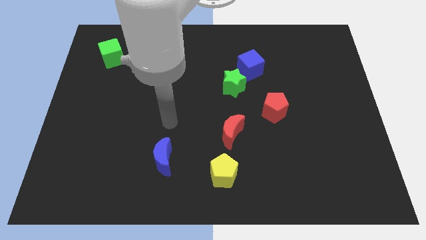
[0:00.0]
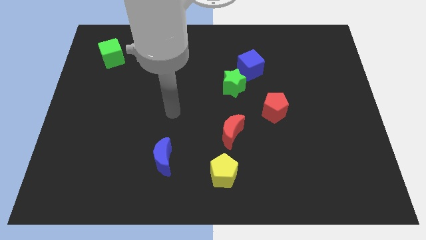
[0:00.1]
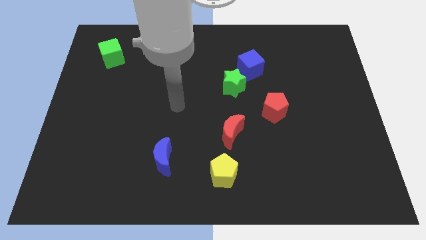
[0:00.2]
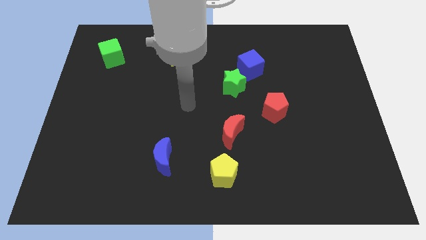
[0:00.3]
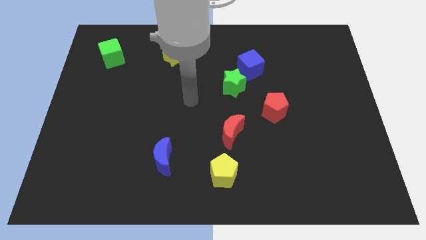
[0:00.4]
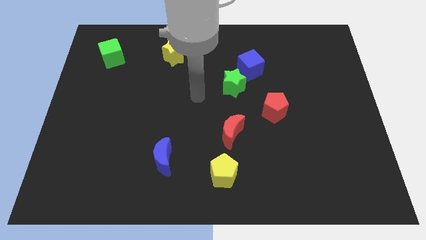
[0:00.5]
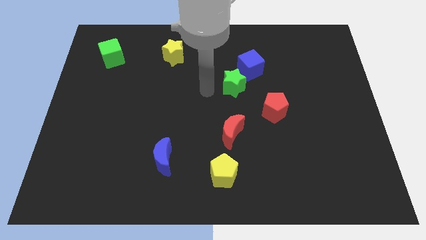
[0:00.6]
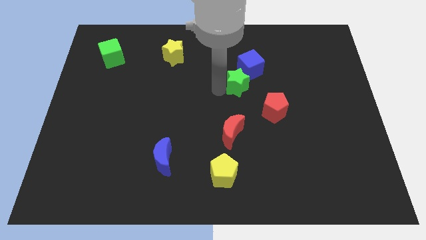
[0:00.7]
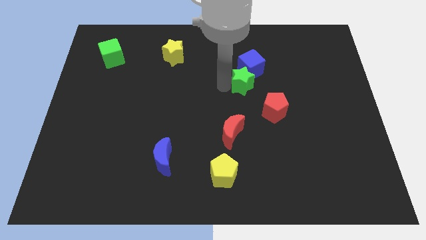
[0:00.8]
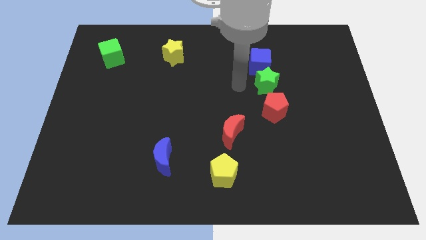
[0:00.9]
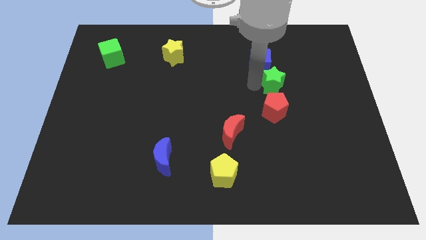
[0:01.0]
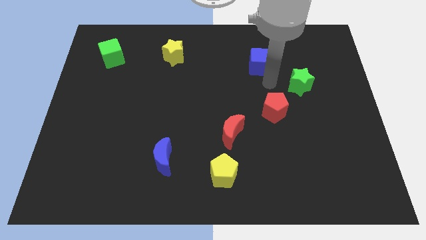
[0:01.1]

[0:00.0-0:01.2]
separate the blue cube from the green star

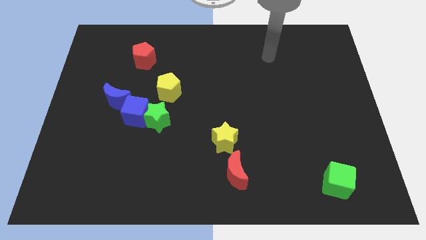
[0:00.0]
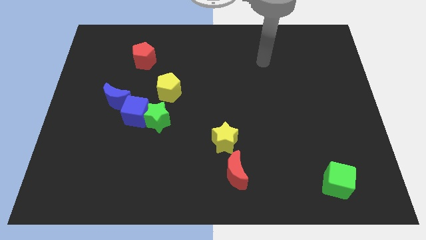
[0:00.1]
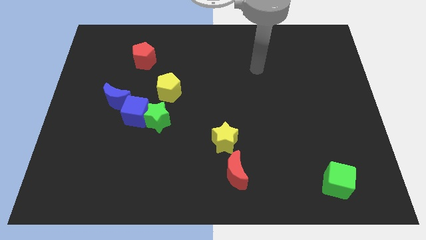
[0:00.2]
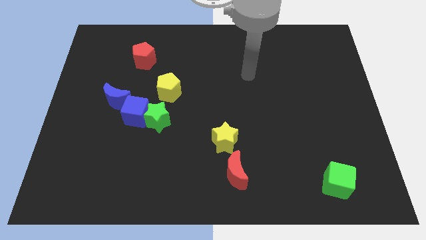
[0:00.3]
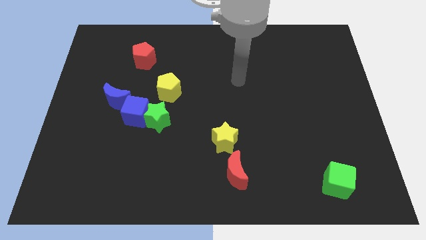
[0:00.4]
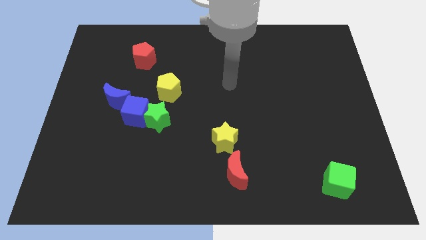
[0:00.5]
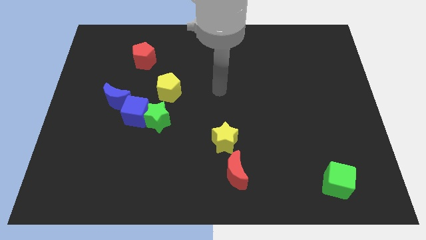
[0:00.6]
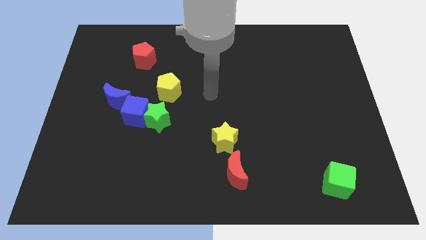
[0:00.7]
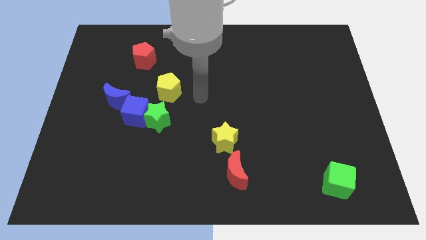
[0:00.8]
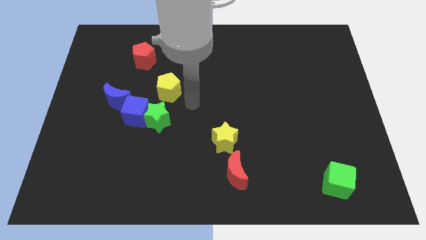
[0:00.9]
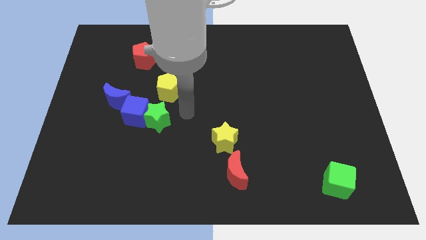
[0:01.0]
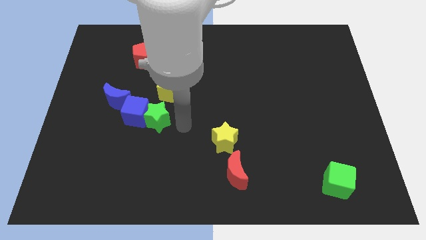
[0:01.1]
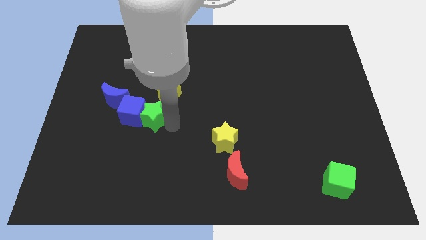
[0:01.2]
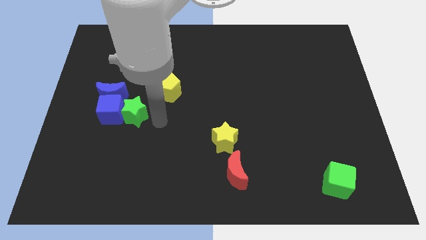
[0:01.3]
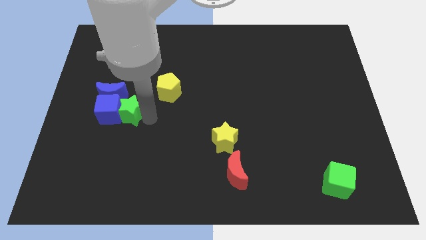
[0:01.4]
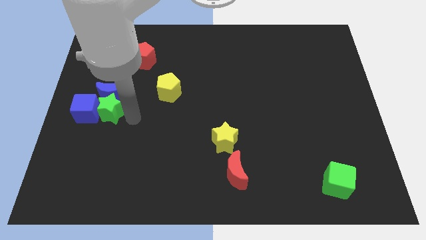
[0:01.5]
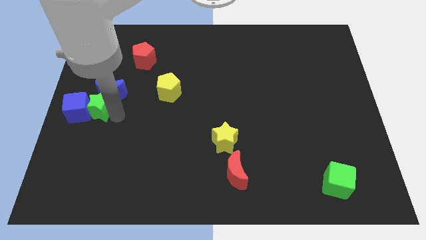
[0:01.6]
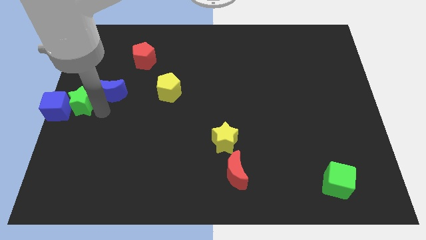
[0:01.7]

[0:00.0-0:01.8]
pull the blue moon apart from the blue cube

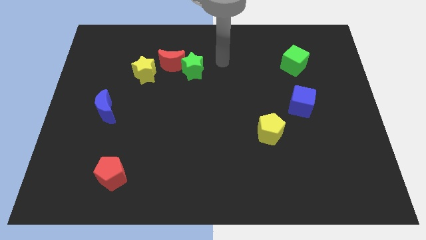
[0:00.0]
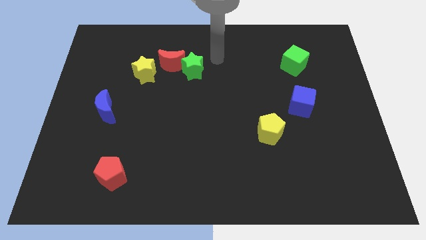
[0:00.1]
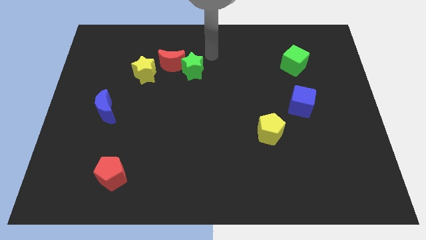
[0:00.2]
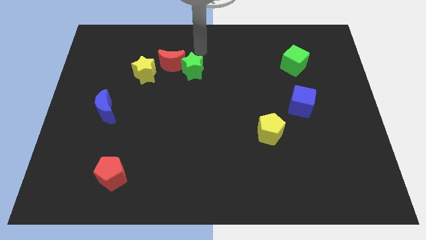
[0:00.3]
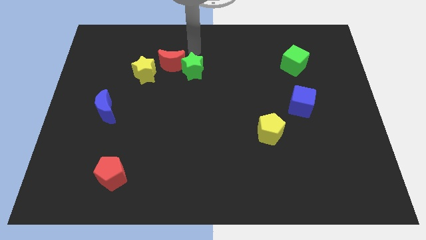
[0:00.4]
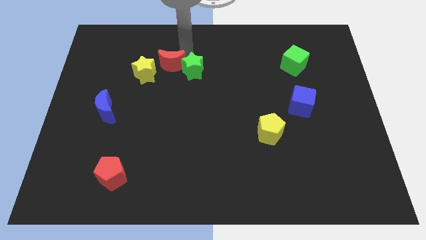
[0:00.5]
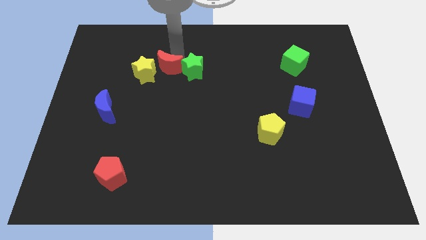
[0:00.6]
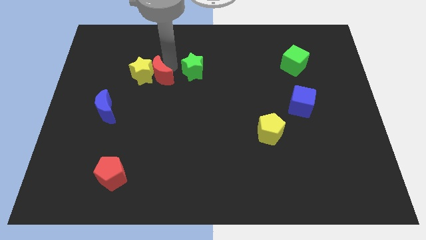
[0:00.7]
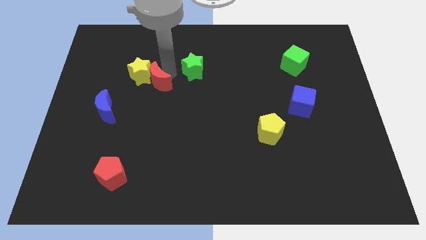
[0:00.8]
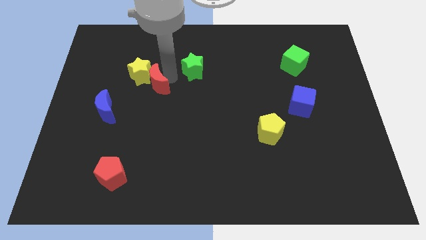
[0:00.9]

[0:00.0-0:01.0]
move the green star away from the red moon

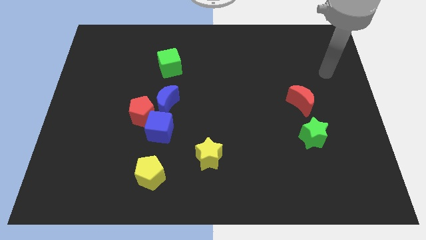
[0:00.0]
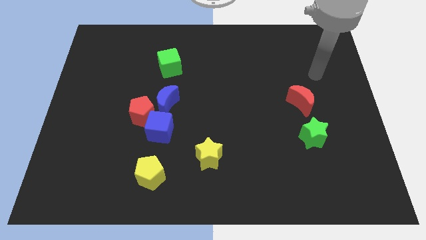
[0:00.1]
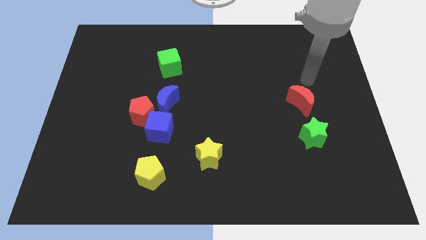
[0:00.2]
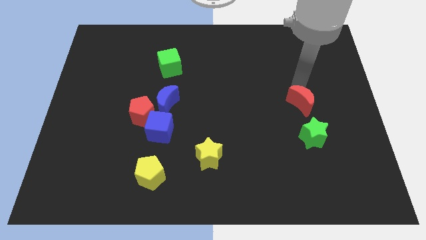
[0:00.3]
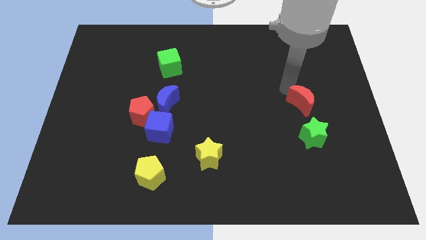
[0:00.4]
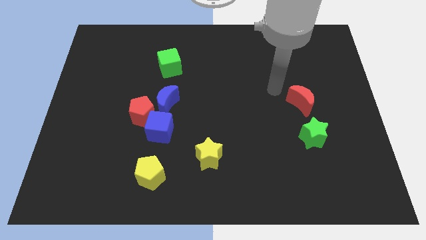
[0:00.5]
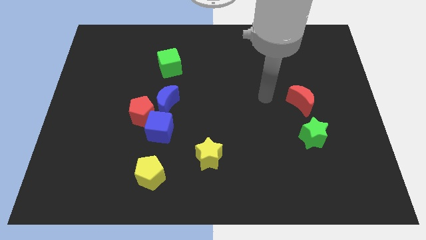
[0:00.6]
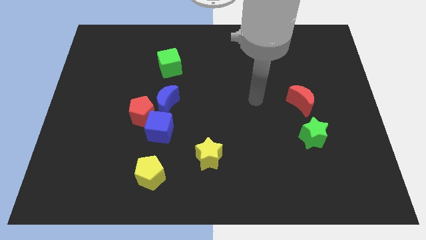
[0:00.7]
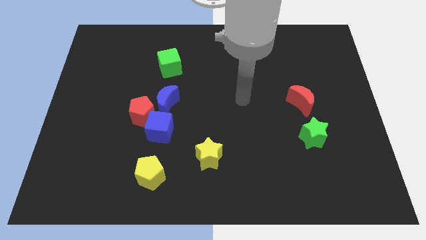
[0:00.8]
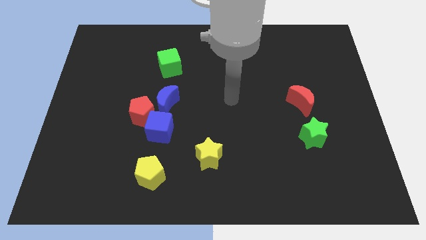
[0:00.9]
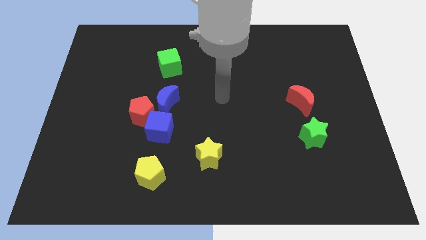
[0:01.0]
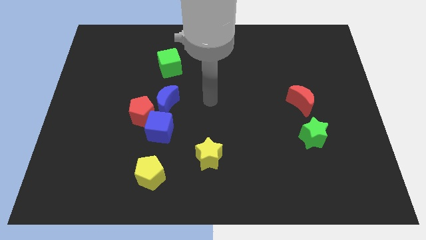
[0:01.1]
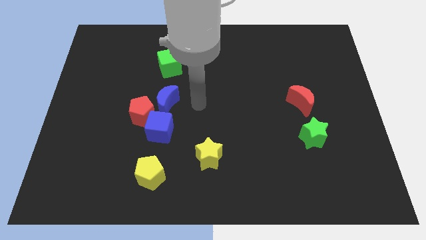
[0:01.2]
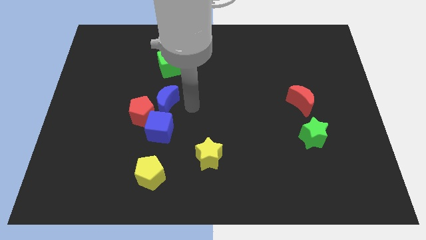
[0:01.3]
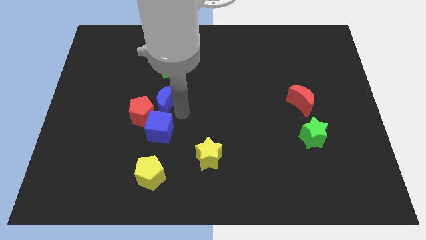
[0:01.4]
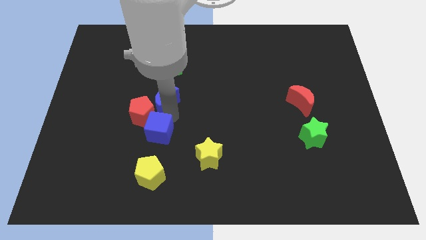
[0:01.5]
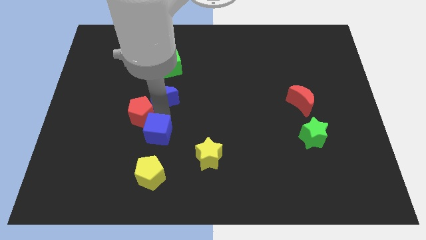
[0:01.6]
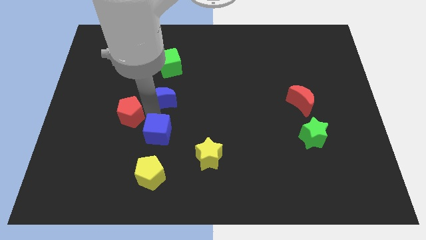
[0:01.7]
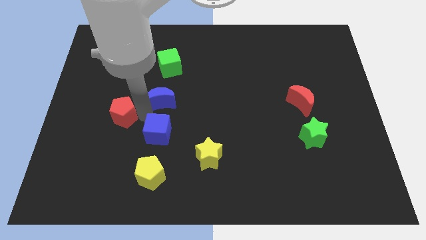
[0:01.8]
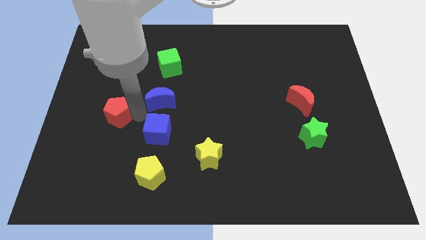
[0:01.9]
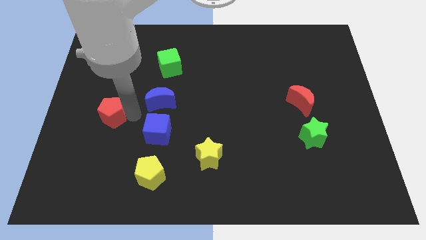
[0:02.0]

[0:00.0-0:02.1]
pull the red pentagon apart from the blue cube and blue moon

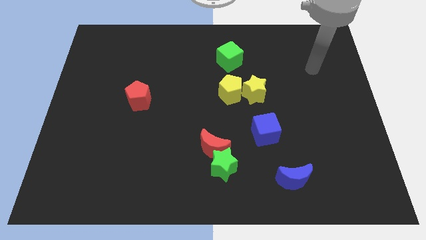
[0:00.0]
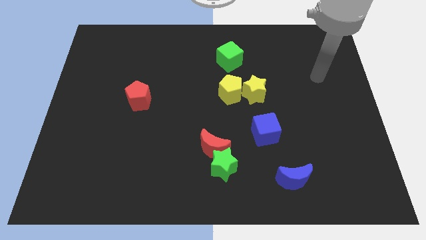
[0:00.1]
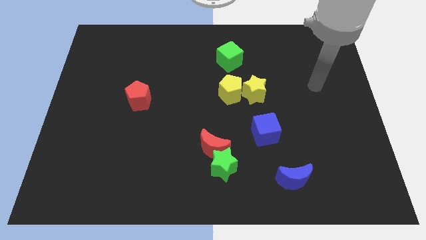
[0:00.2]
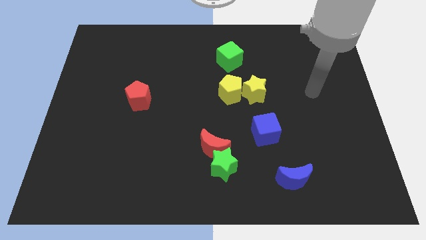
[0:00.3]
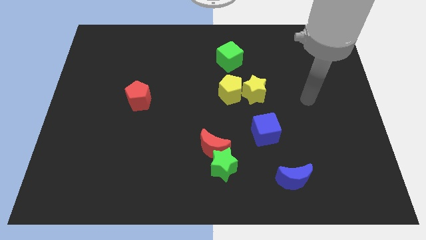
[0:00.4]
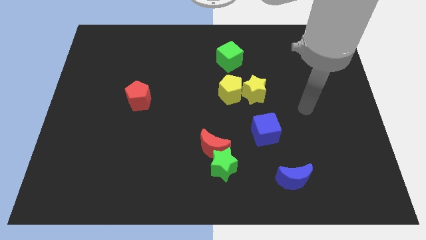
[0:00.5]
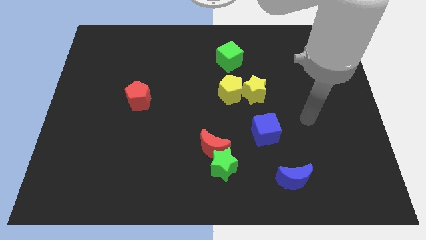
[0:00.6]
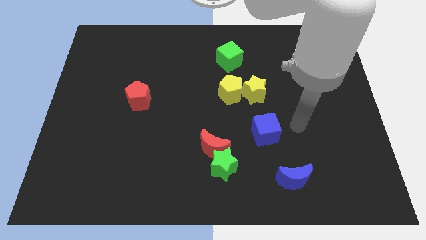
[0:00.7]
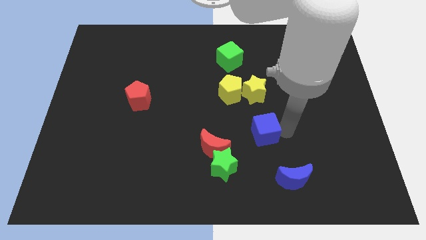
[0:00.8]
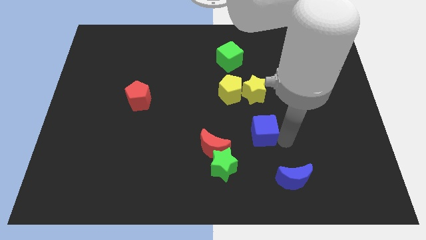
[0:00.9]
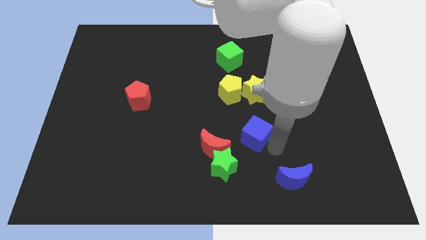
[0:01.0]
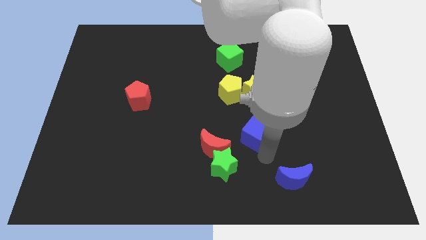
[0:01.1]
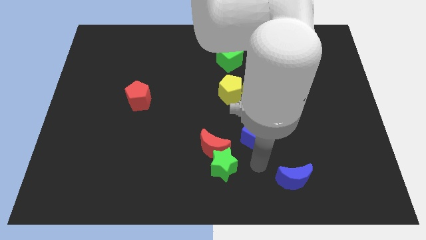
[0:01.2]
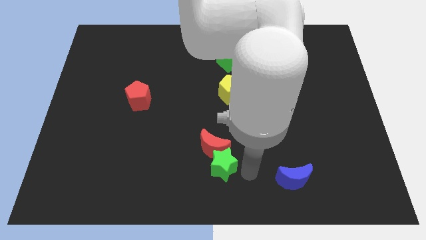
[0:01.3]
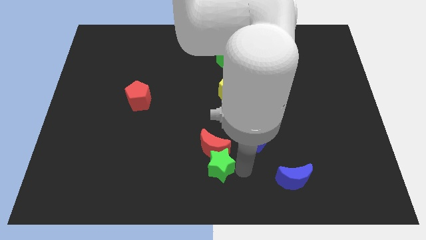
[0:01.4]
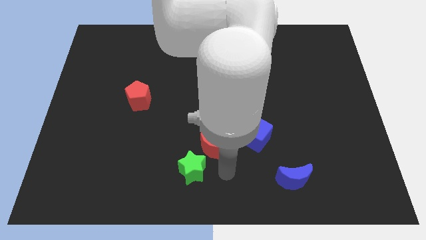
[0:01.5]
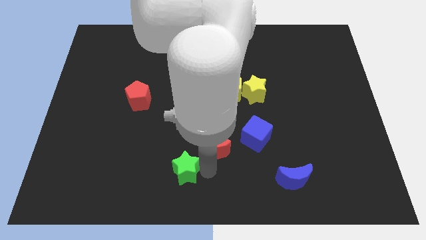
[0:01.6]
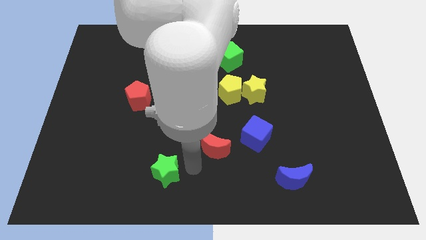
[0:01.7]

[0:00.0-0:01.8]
pull the red moon apart from the green star

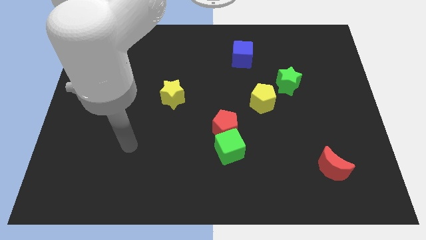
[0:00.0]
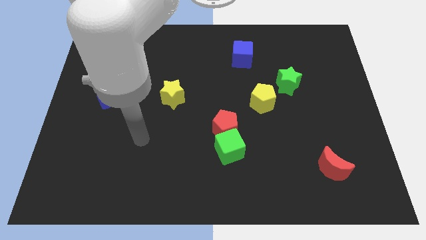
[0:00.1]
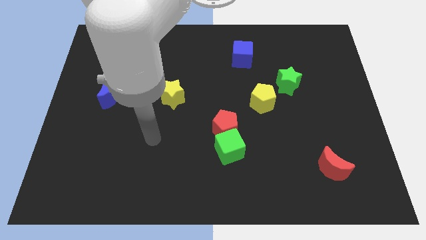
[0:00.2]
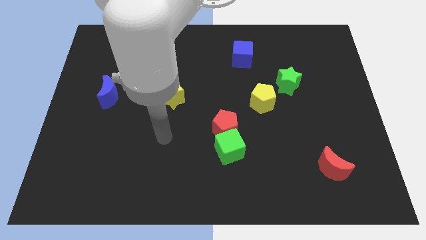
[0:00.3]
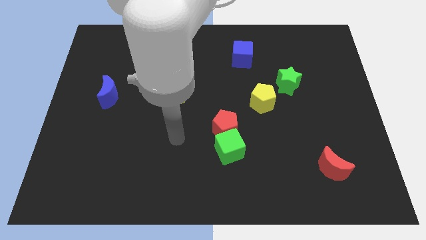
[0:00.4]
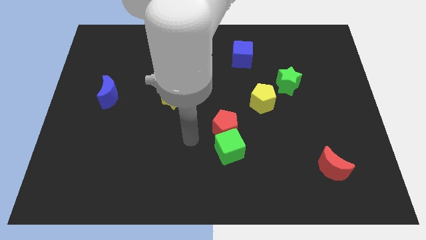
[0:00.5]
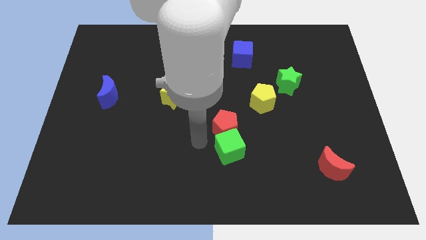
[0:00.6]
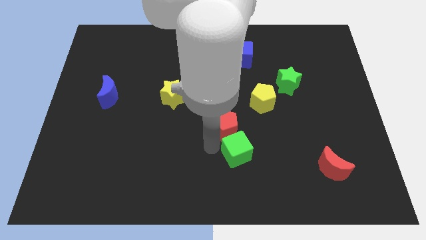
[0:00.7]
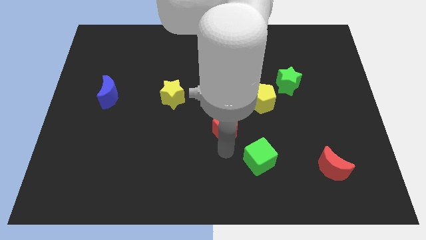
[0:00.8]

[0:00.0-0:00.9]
pull the red pentagon apart from the green cube

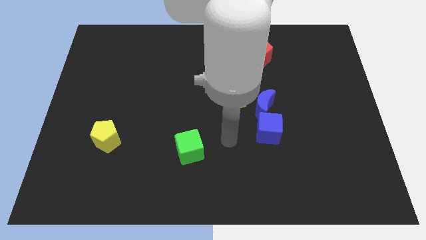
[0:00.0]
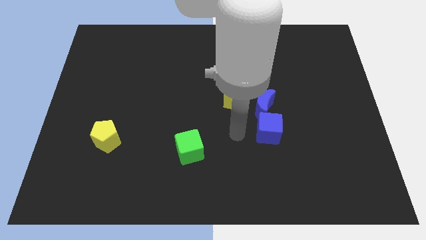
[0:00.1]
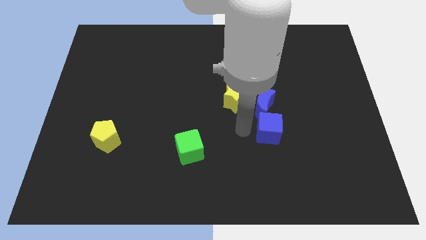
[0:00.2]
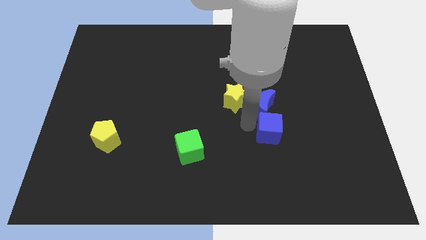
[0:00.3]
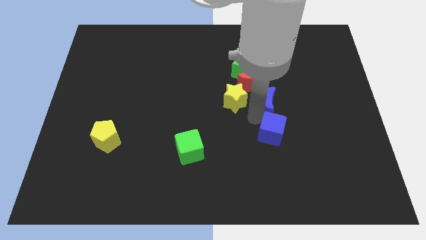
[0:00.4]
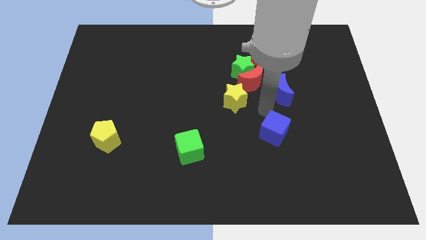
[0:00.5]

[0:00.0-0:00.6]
pull the blue cube apart from the blue moon
